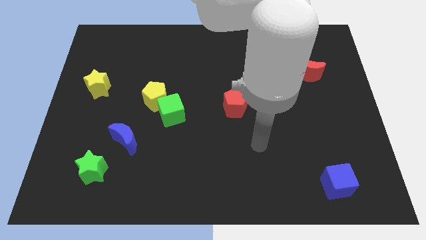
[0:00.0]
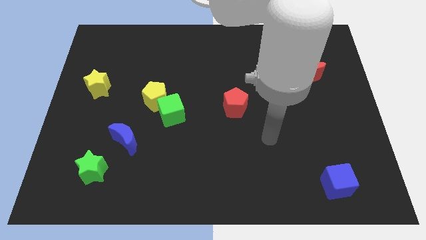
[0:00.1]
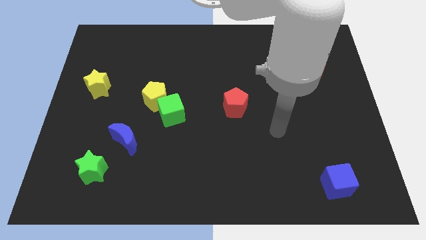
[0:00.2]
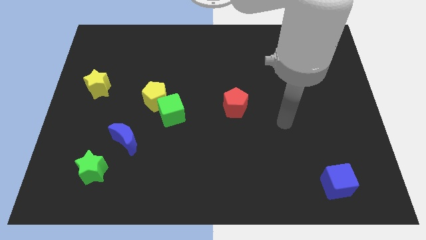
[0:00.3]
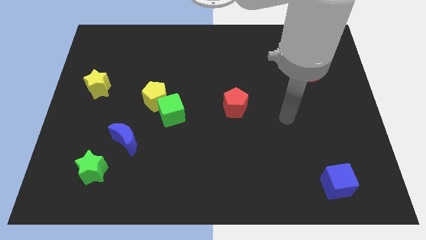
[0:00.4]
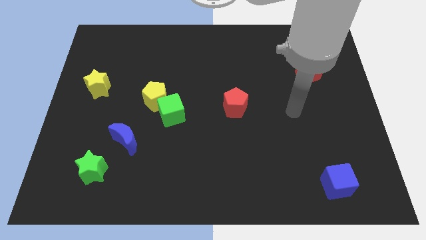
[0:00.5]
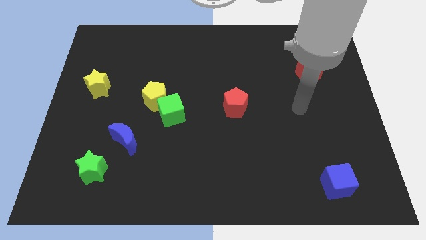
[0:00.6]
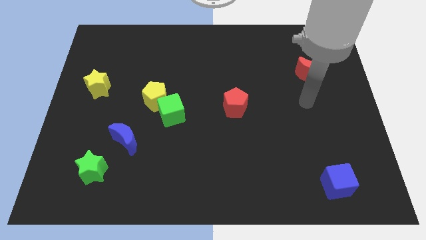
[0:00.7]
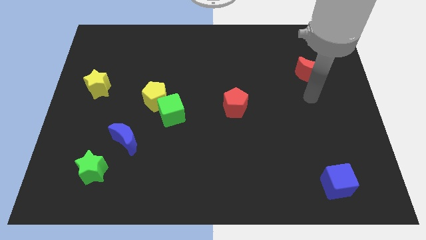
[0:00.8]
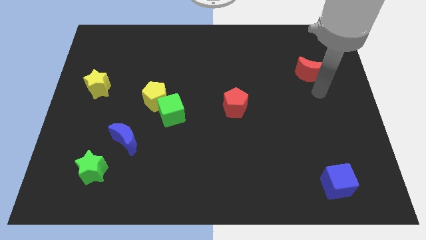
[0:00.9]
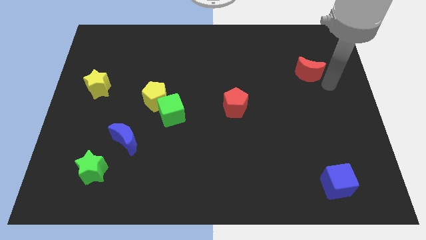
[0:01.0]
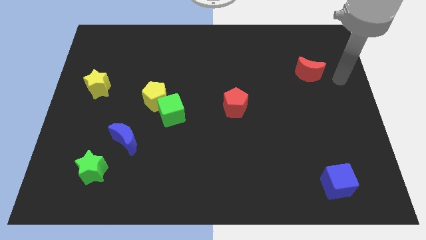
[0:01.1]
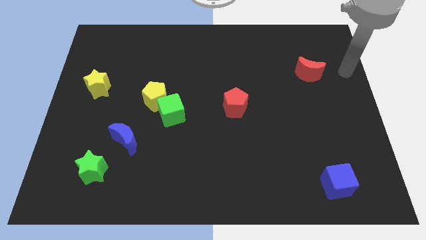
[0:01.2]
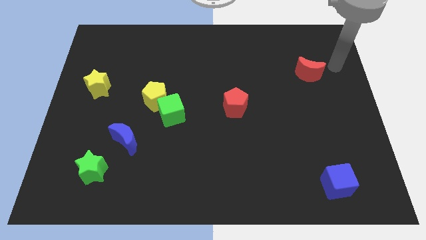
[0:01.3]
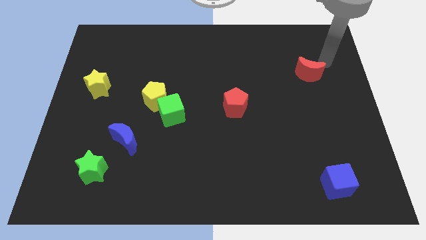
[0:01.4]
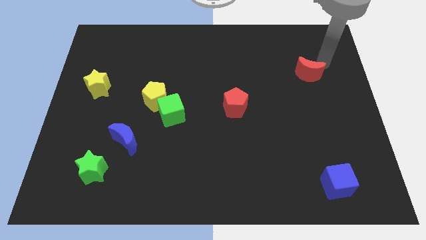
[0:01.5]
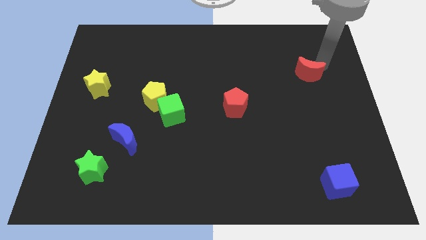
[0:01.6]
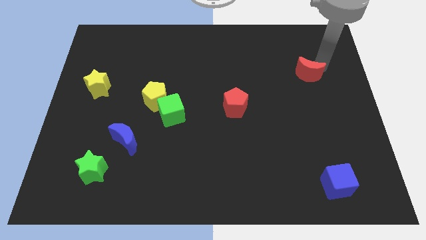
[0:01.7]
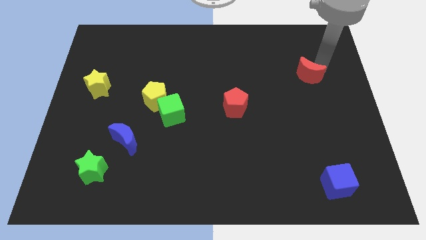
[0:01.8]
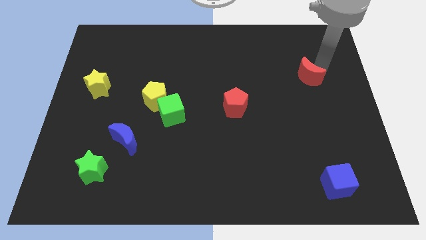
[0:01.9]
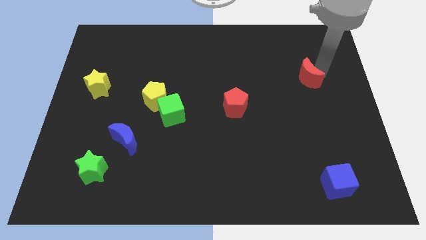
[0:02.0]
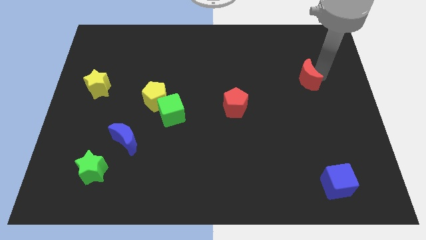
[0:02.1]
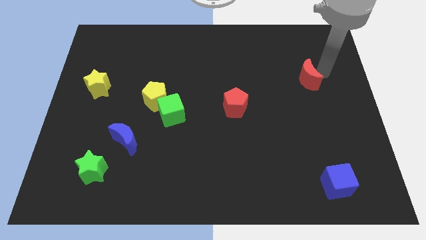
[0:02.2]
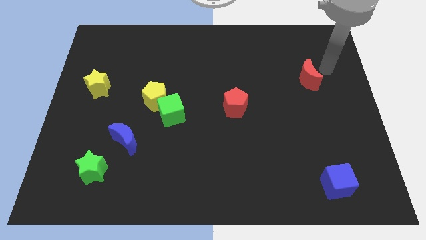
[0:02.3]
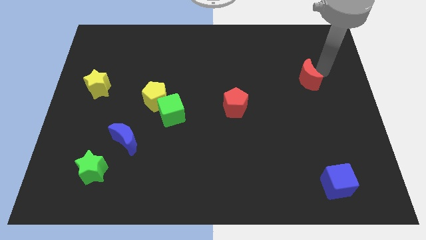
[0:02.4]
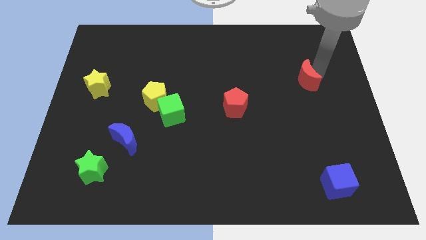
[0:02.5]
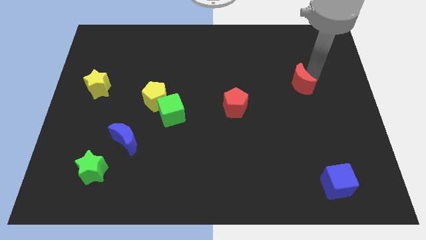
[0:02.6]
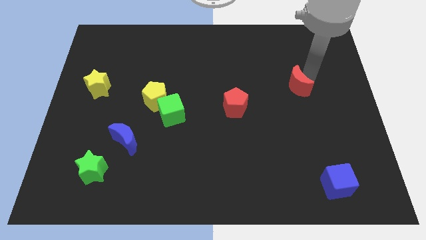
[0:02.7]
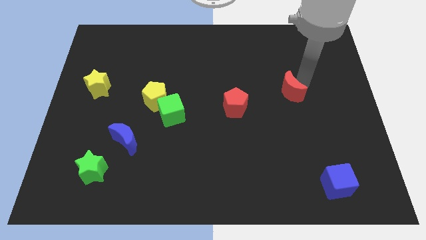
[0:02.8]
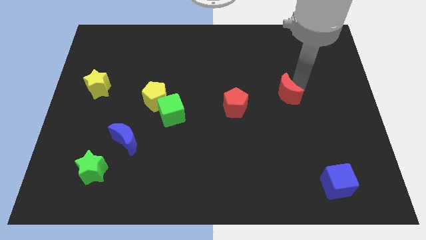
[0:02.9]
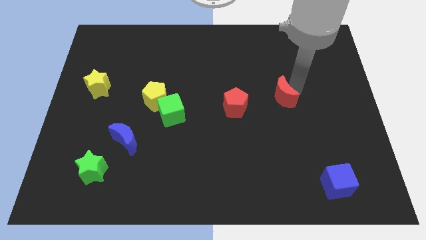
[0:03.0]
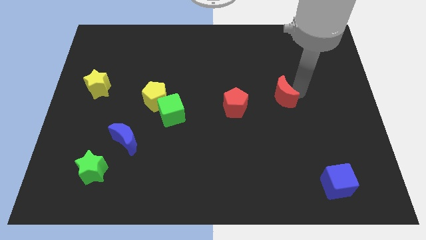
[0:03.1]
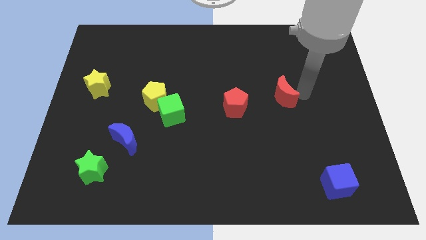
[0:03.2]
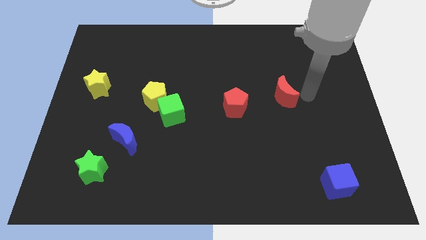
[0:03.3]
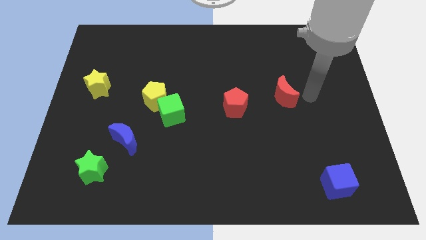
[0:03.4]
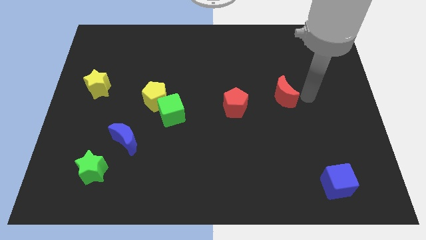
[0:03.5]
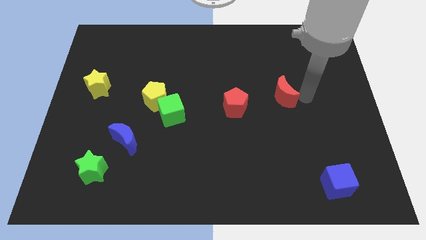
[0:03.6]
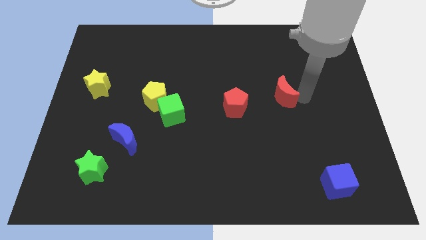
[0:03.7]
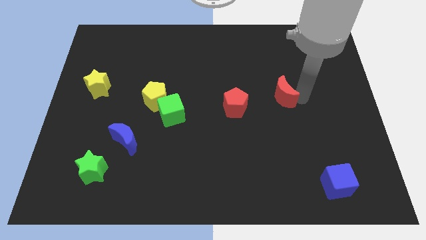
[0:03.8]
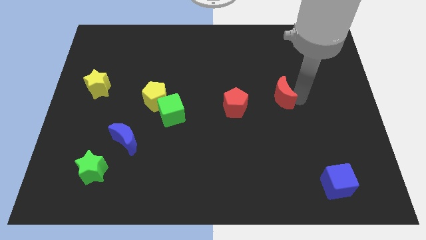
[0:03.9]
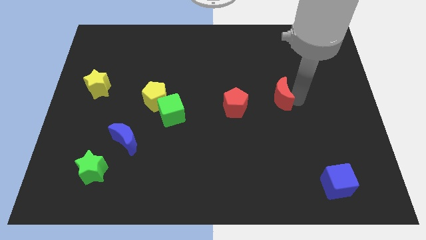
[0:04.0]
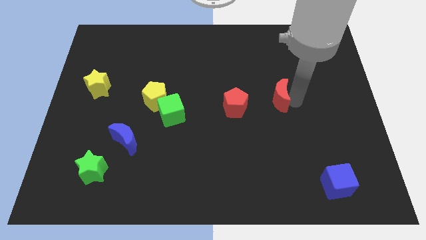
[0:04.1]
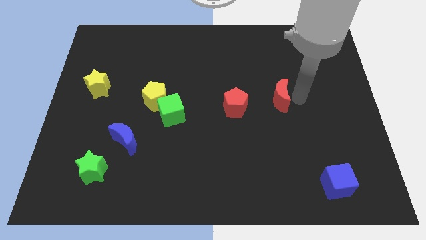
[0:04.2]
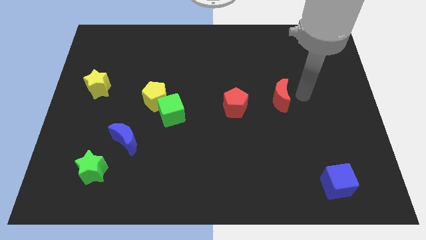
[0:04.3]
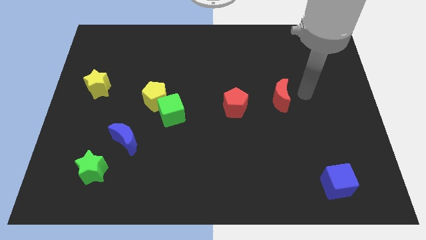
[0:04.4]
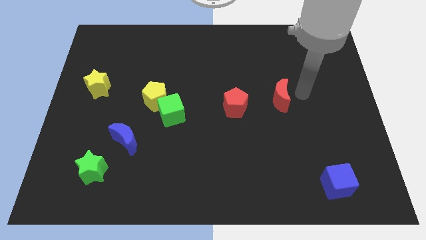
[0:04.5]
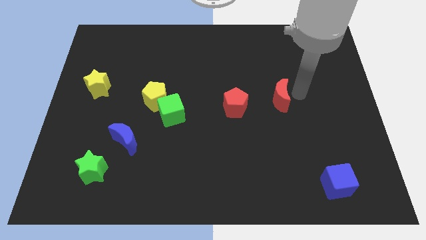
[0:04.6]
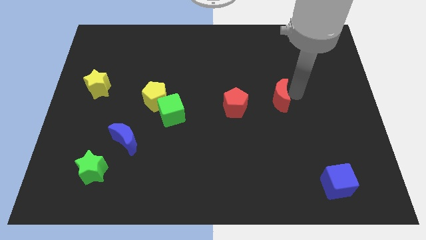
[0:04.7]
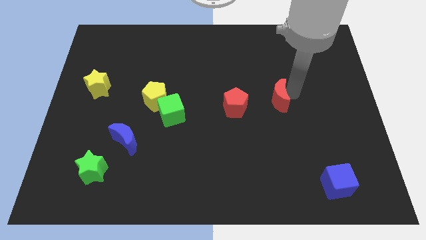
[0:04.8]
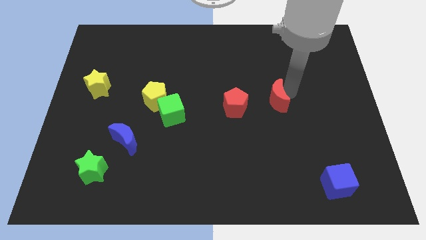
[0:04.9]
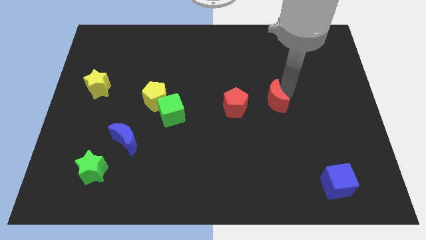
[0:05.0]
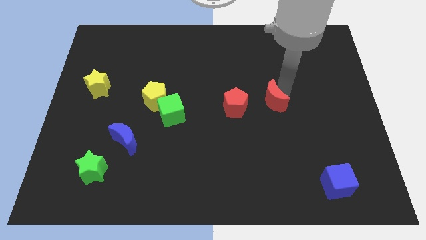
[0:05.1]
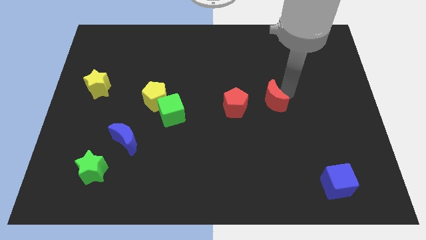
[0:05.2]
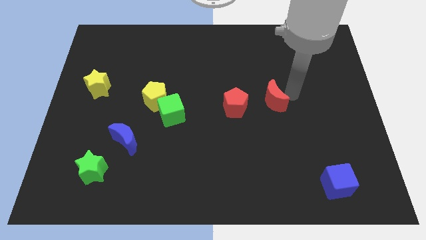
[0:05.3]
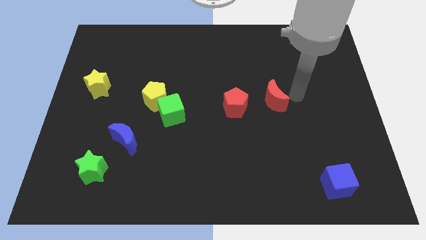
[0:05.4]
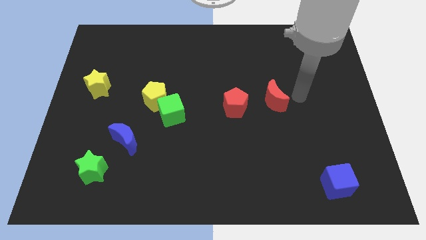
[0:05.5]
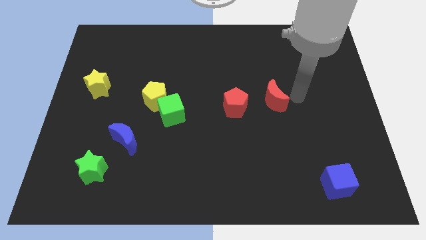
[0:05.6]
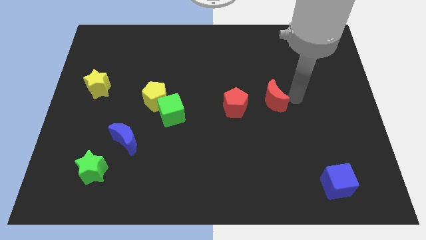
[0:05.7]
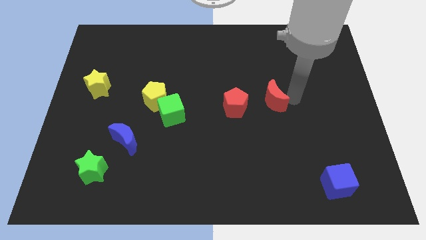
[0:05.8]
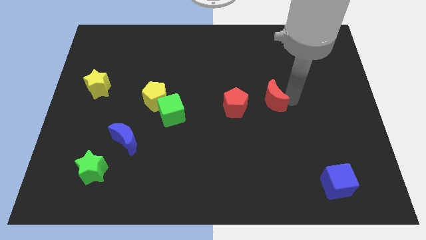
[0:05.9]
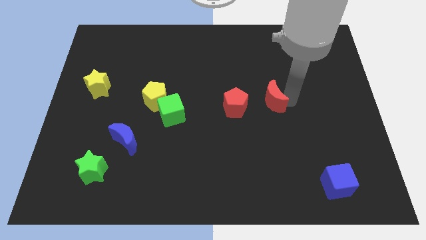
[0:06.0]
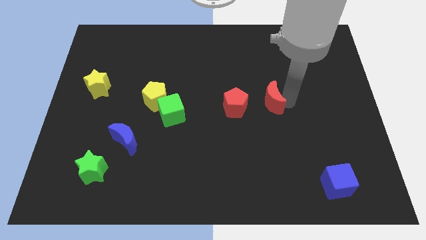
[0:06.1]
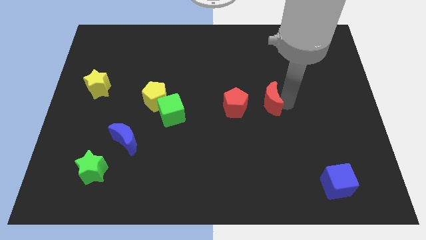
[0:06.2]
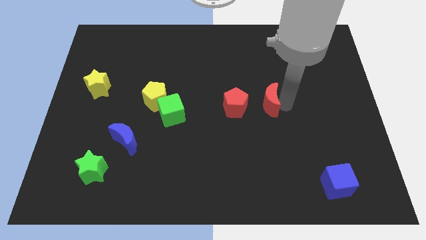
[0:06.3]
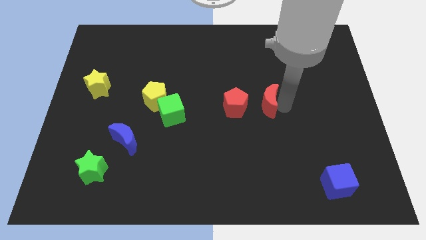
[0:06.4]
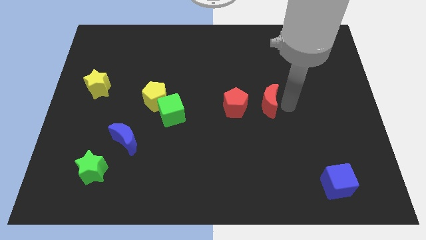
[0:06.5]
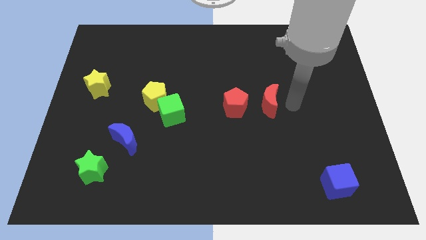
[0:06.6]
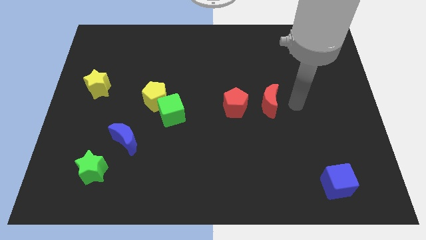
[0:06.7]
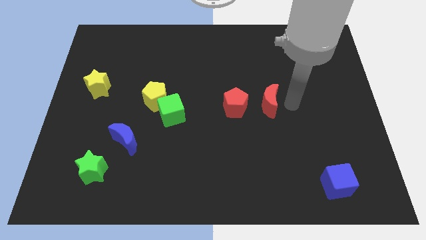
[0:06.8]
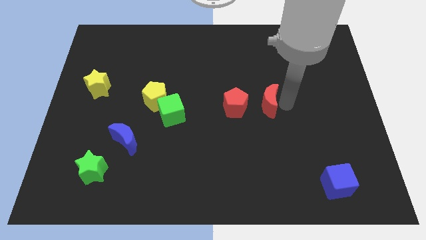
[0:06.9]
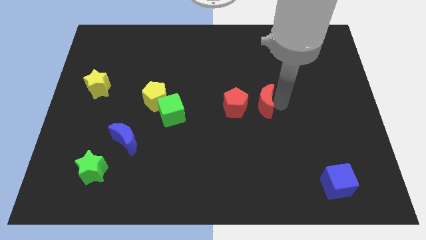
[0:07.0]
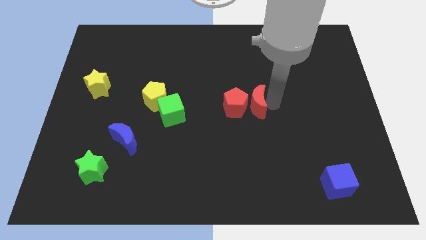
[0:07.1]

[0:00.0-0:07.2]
push the red moon close to the red pentagon

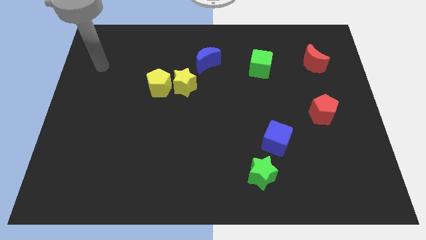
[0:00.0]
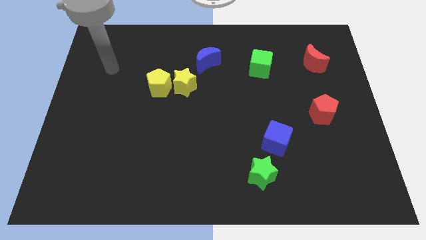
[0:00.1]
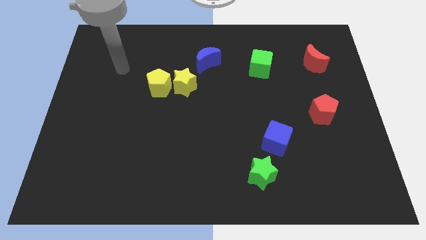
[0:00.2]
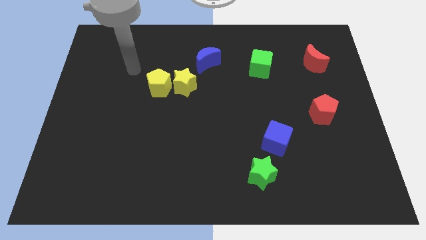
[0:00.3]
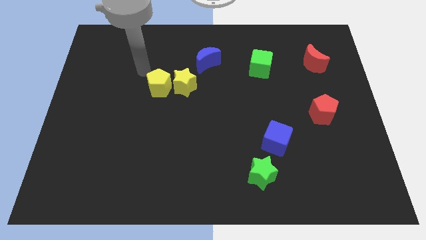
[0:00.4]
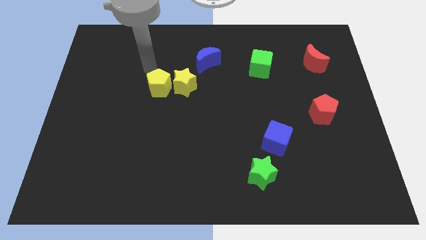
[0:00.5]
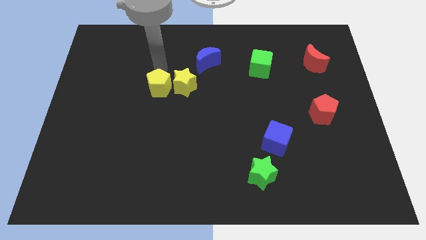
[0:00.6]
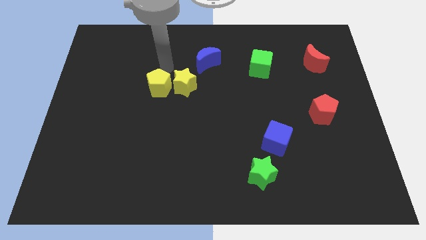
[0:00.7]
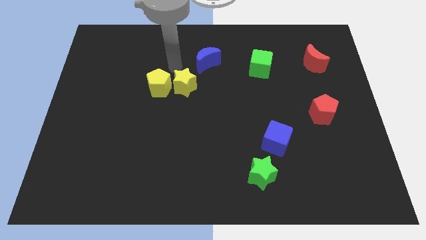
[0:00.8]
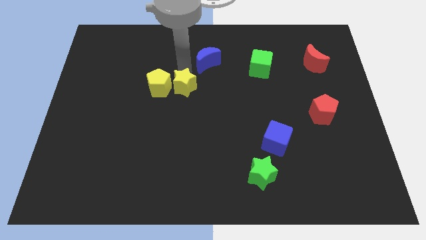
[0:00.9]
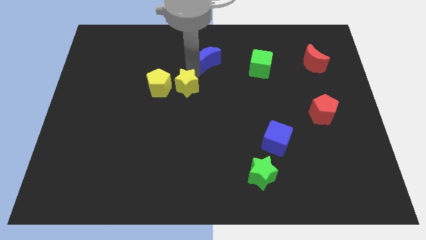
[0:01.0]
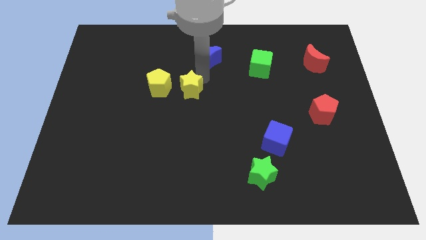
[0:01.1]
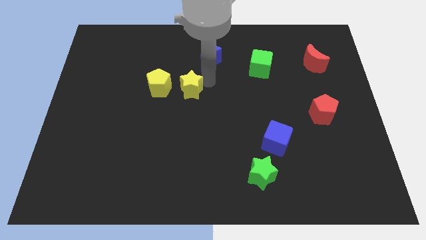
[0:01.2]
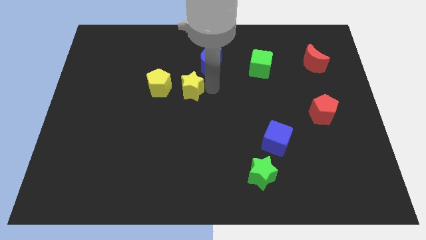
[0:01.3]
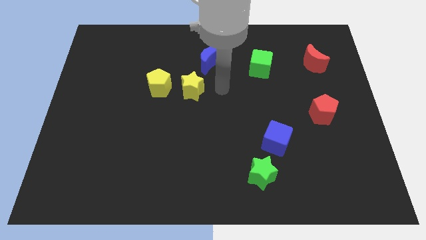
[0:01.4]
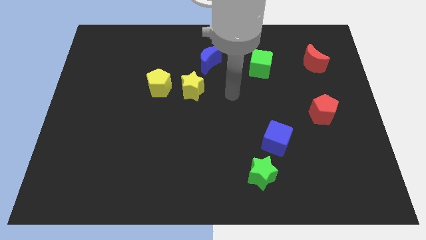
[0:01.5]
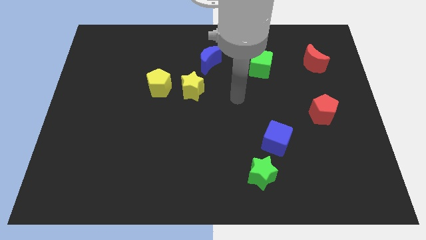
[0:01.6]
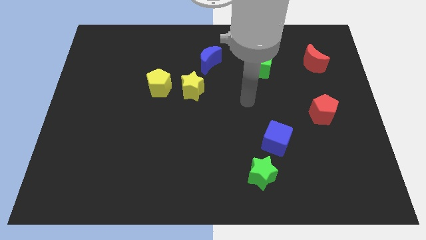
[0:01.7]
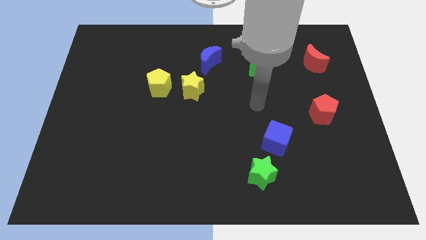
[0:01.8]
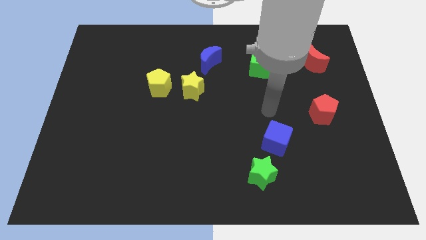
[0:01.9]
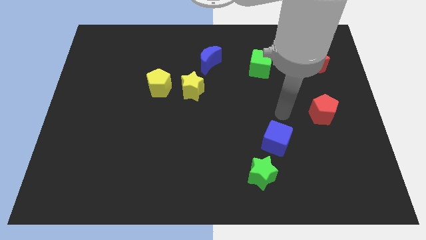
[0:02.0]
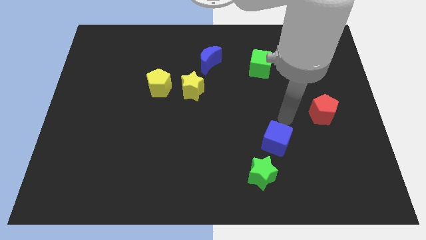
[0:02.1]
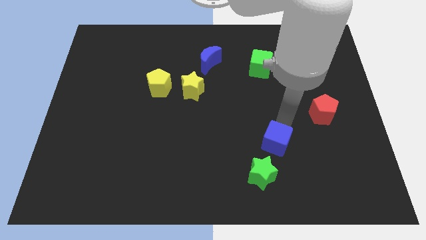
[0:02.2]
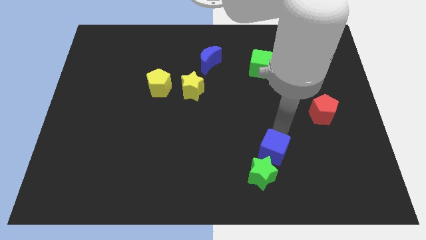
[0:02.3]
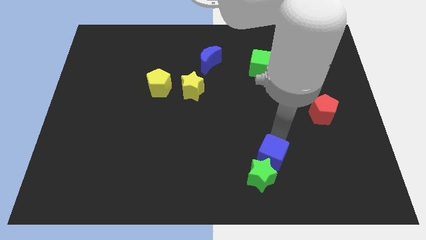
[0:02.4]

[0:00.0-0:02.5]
put the blue cube to the green star
